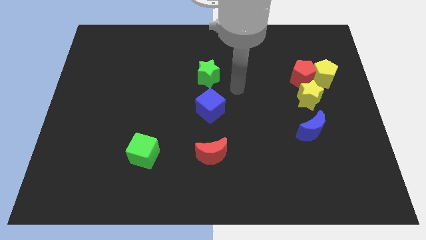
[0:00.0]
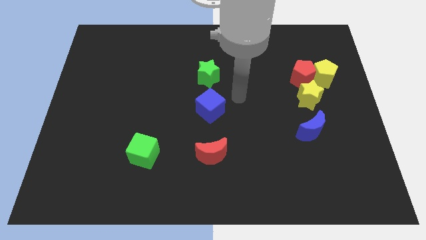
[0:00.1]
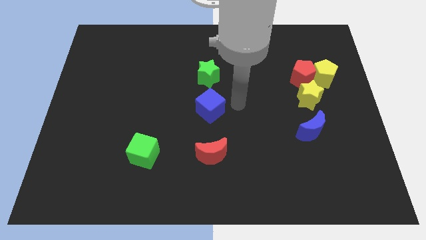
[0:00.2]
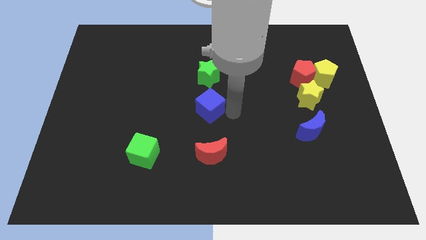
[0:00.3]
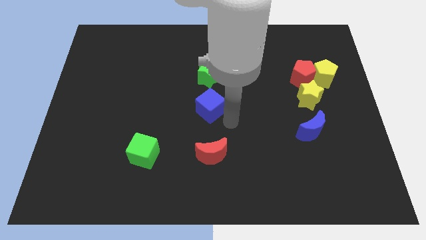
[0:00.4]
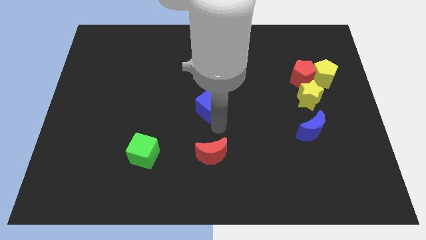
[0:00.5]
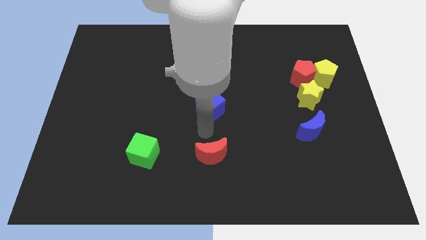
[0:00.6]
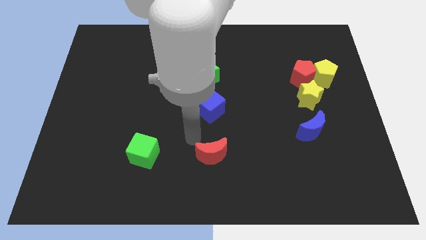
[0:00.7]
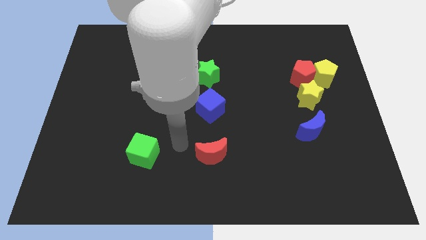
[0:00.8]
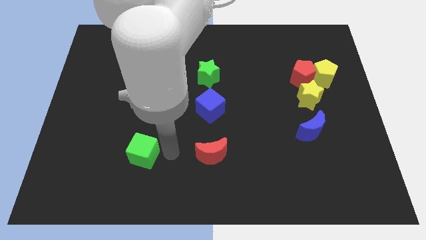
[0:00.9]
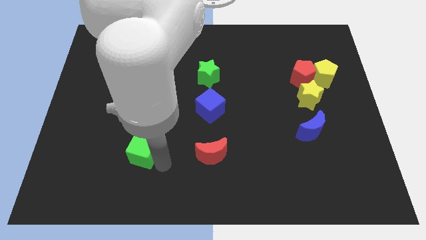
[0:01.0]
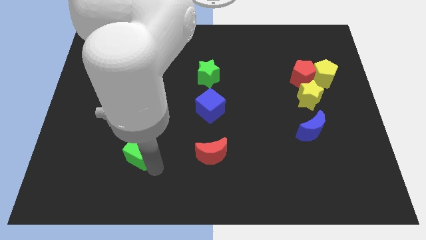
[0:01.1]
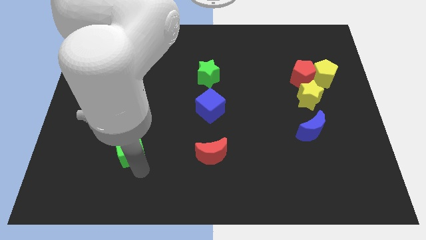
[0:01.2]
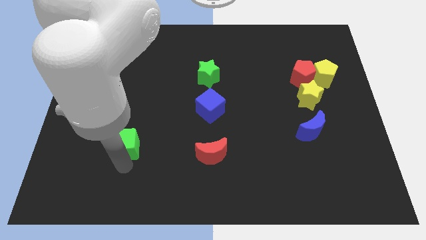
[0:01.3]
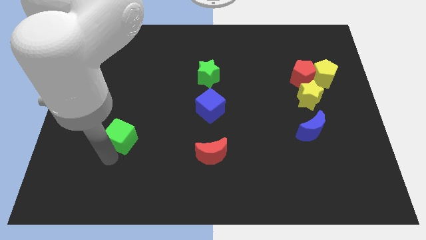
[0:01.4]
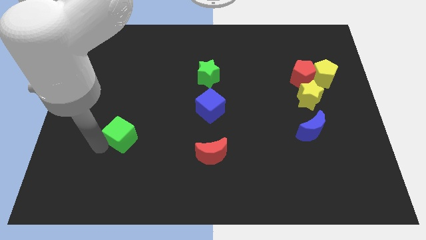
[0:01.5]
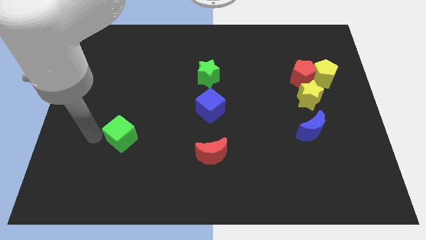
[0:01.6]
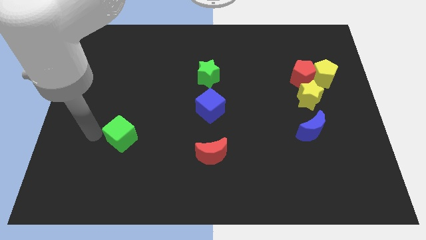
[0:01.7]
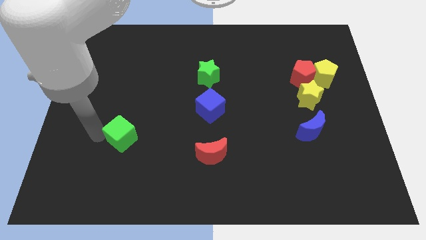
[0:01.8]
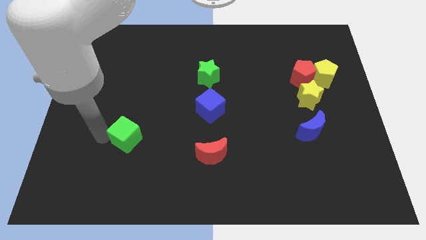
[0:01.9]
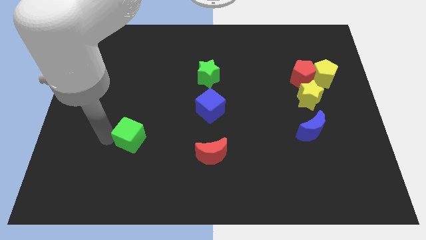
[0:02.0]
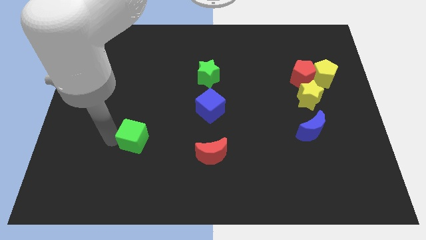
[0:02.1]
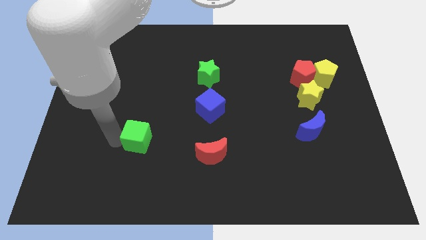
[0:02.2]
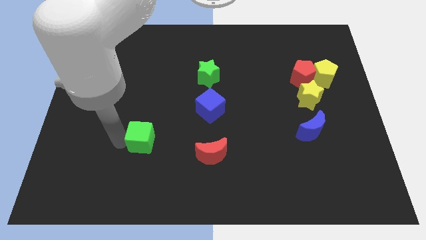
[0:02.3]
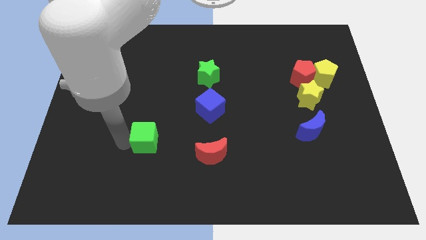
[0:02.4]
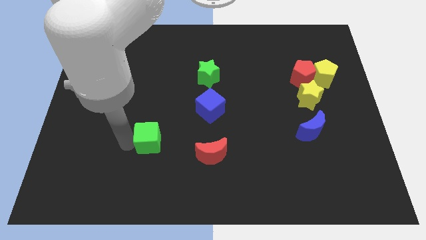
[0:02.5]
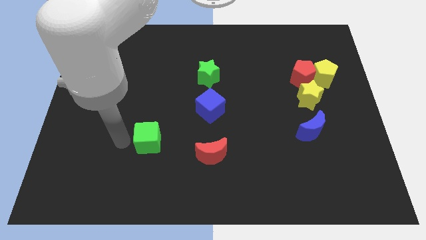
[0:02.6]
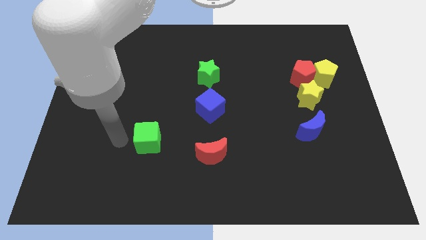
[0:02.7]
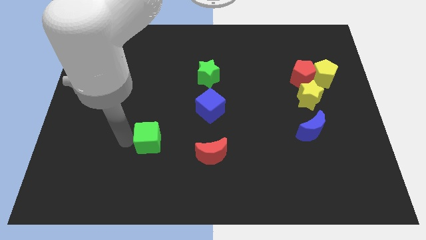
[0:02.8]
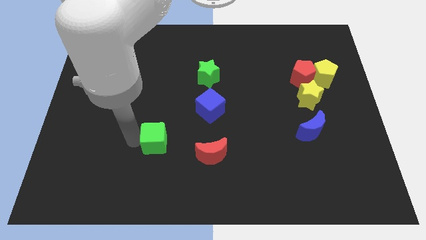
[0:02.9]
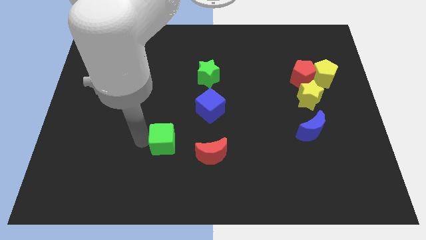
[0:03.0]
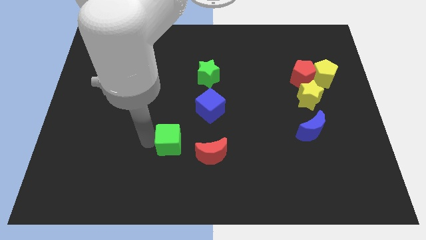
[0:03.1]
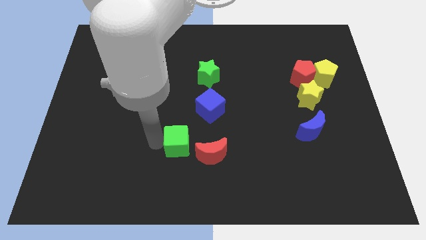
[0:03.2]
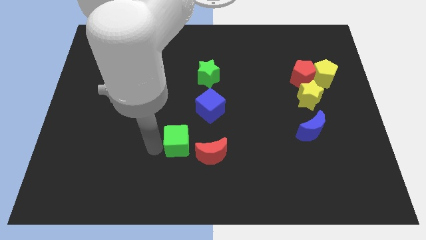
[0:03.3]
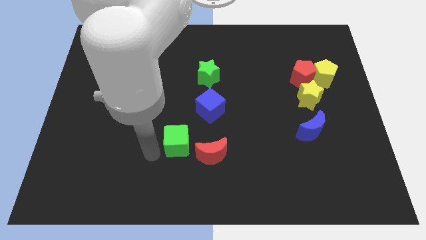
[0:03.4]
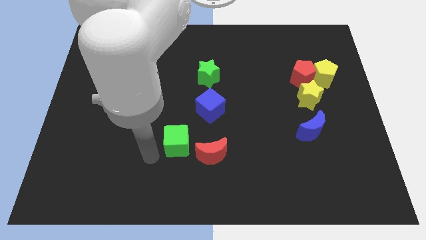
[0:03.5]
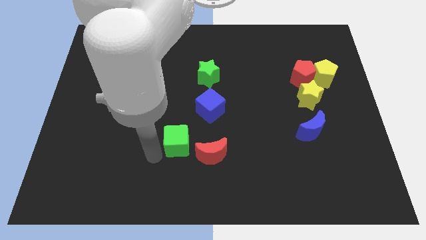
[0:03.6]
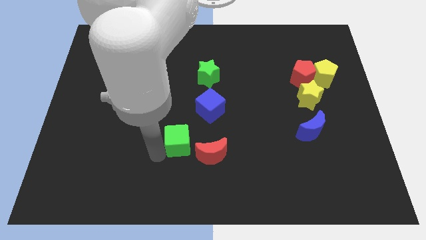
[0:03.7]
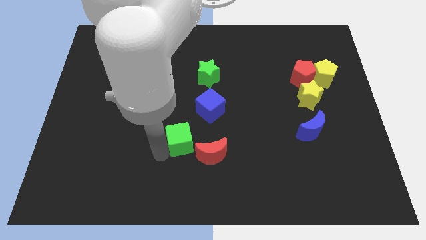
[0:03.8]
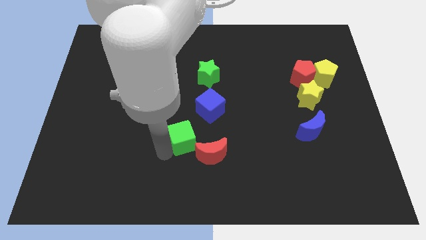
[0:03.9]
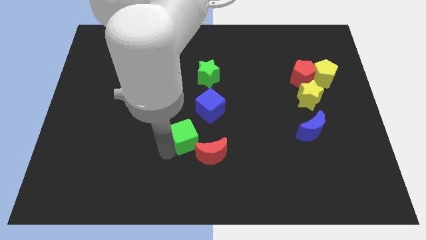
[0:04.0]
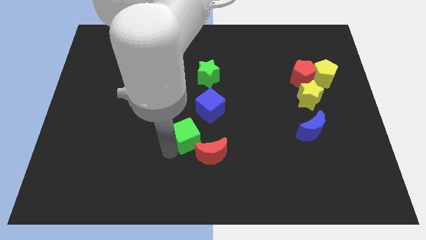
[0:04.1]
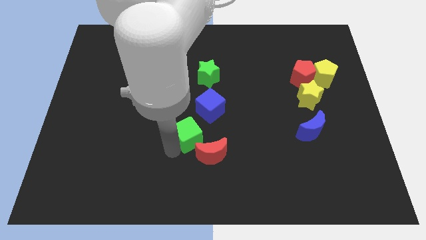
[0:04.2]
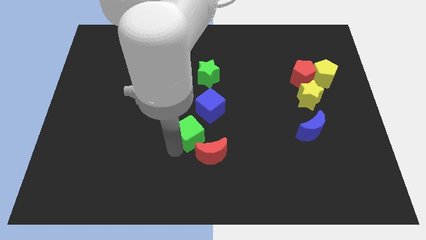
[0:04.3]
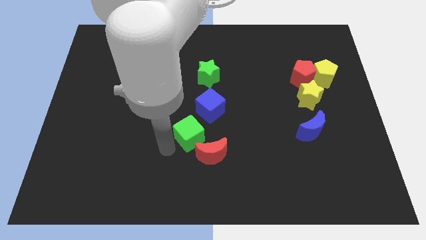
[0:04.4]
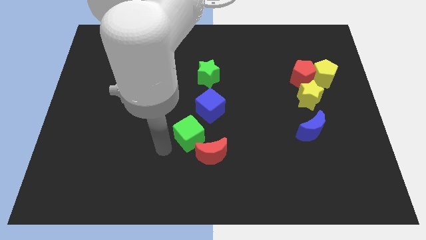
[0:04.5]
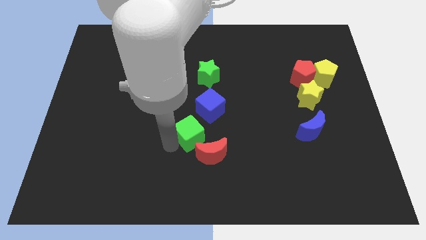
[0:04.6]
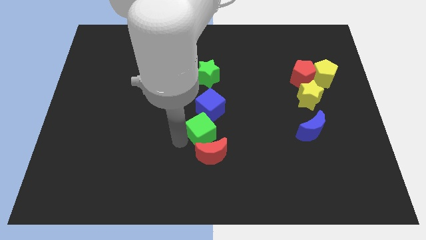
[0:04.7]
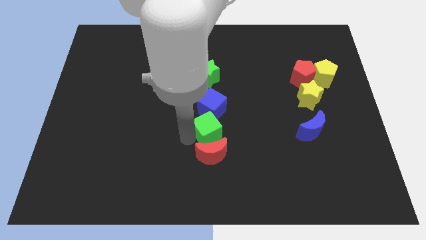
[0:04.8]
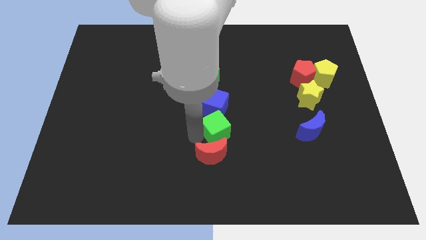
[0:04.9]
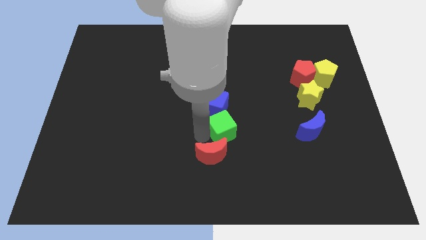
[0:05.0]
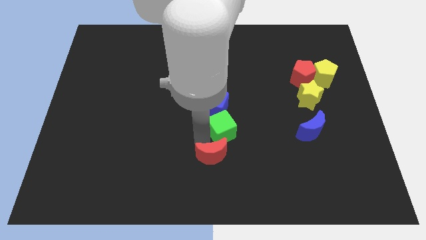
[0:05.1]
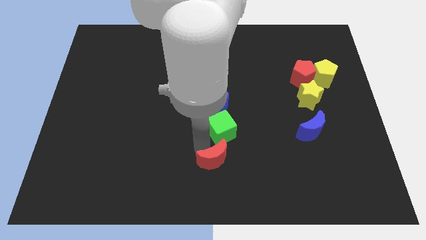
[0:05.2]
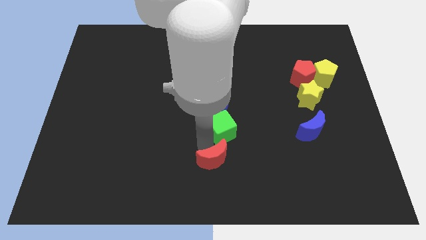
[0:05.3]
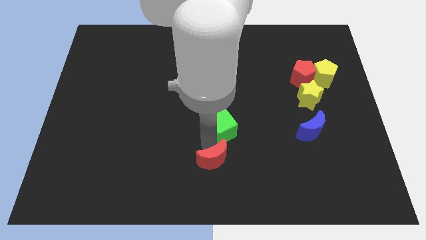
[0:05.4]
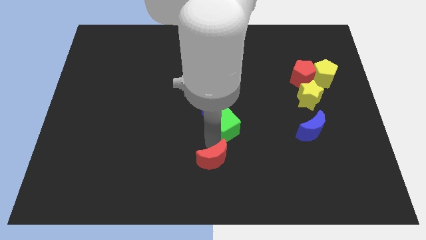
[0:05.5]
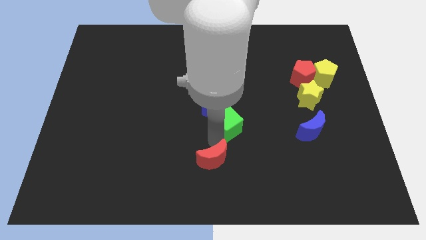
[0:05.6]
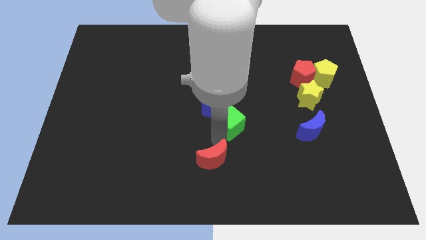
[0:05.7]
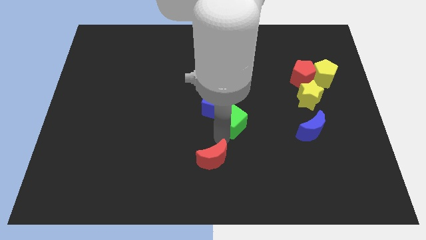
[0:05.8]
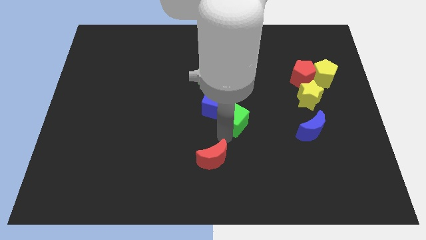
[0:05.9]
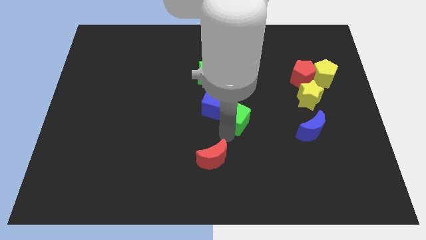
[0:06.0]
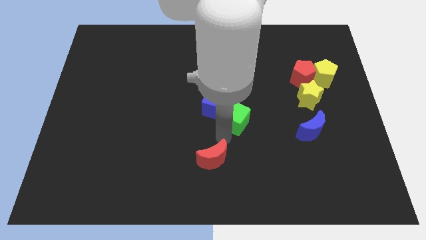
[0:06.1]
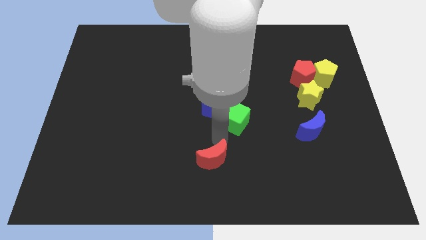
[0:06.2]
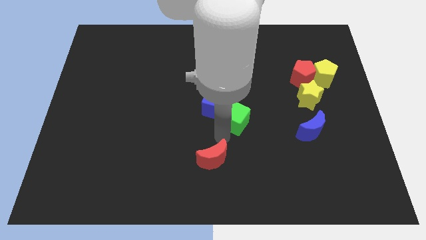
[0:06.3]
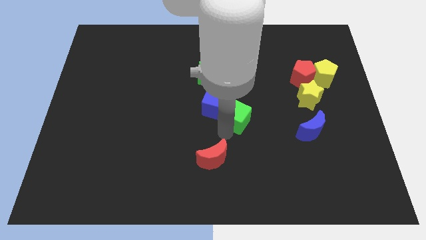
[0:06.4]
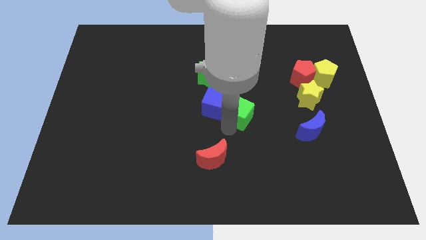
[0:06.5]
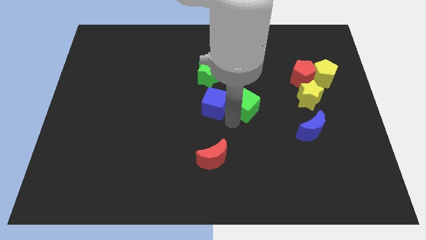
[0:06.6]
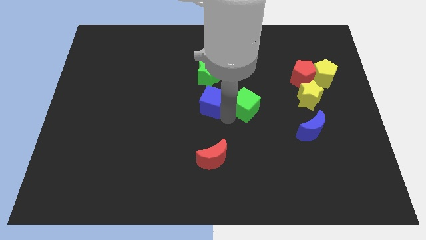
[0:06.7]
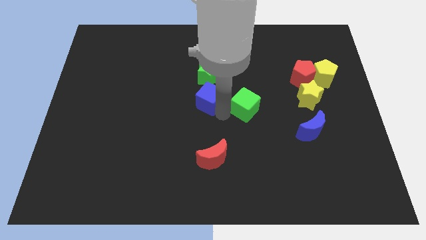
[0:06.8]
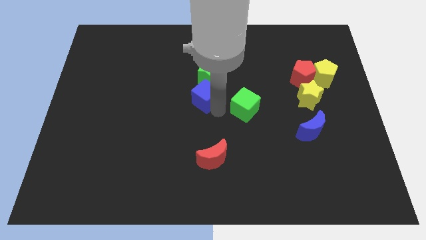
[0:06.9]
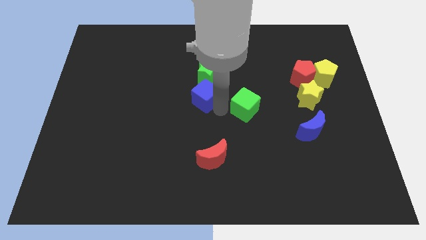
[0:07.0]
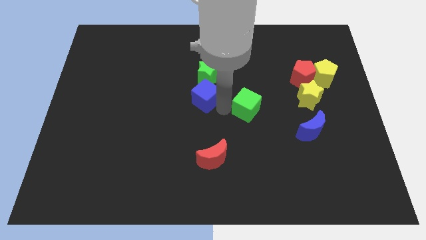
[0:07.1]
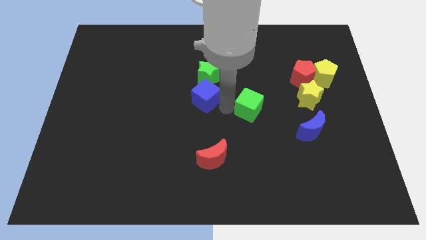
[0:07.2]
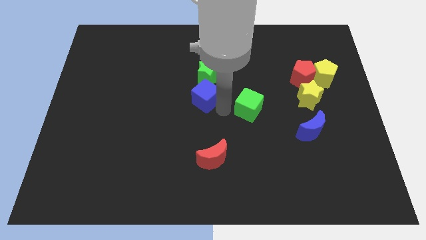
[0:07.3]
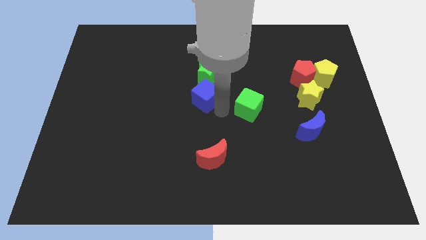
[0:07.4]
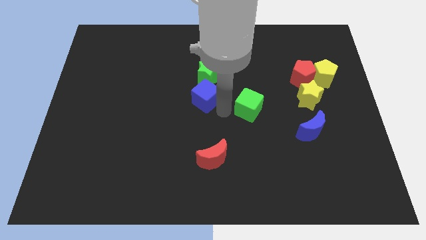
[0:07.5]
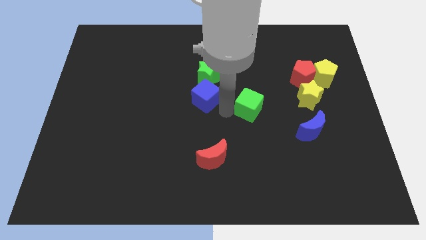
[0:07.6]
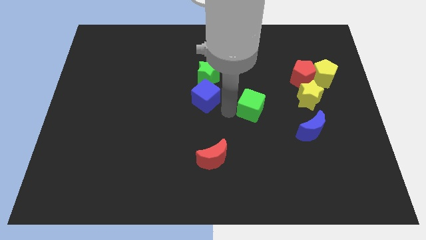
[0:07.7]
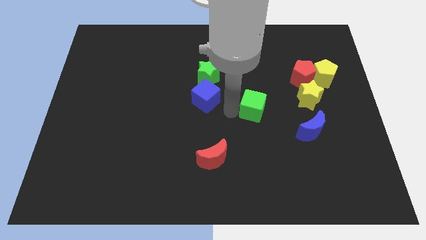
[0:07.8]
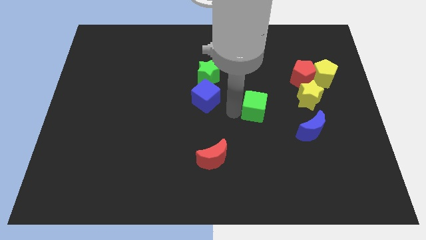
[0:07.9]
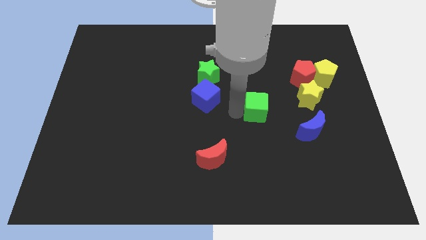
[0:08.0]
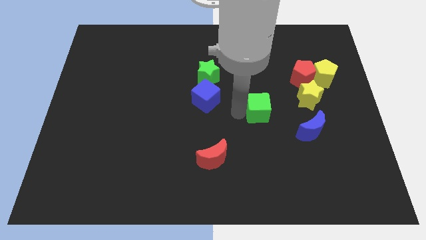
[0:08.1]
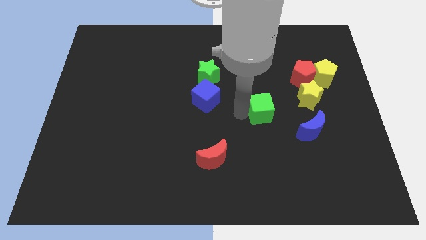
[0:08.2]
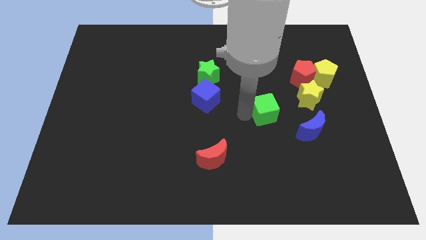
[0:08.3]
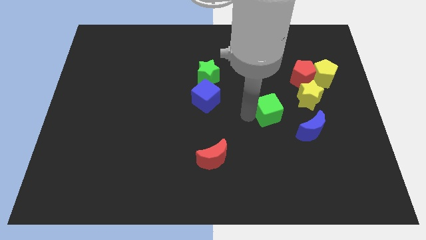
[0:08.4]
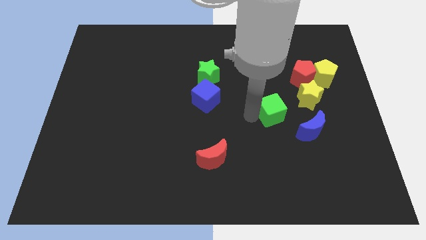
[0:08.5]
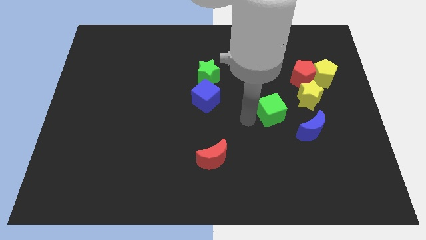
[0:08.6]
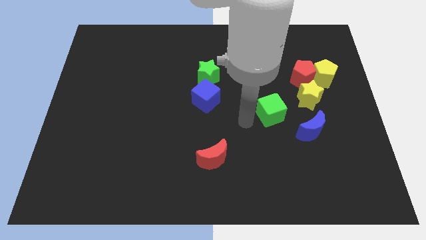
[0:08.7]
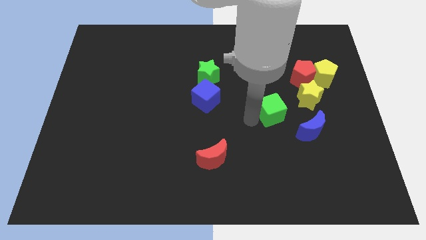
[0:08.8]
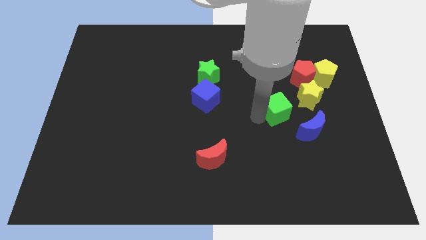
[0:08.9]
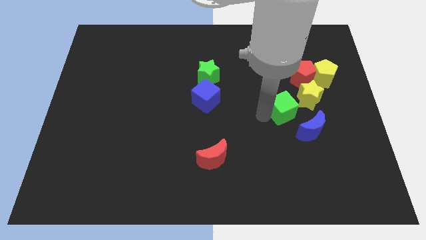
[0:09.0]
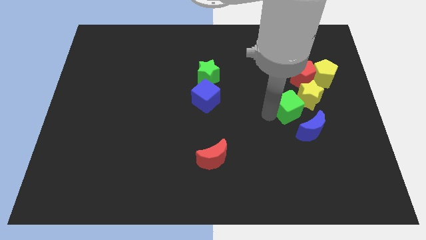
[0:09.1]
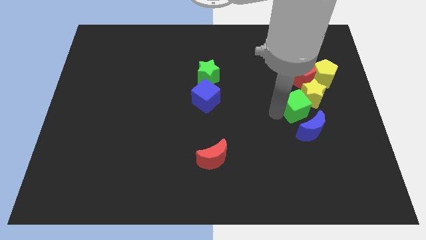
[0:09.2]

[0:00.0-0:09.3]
put the green cube to the yellow star
